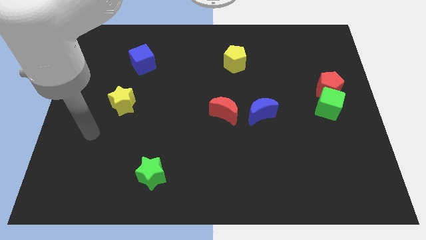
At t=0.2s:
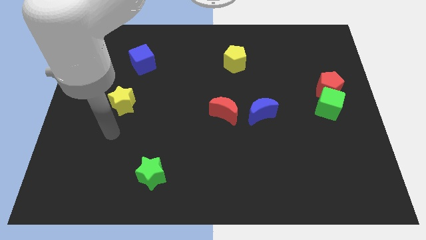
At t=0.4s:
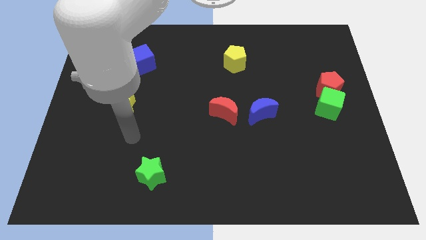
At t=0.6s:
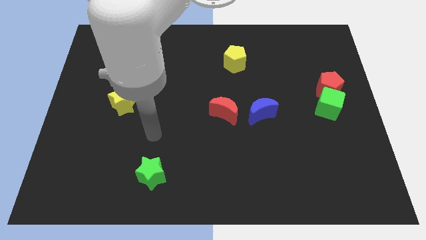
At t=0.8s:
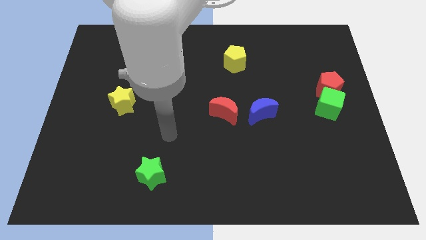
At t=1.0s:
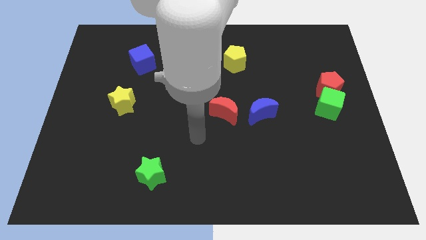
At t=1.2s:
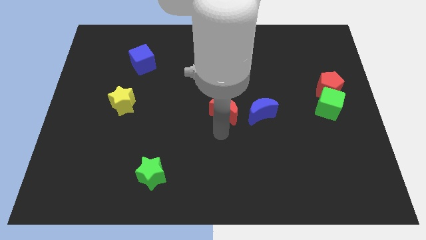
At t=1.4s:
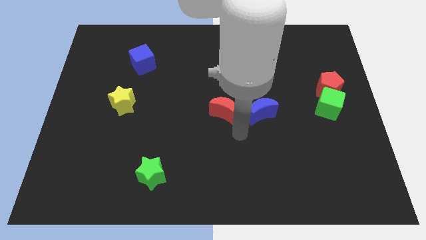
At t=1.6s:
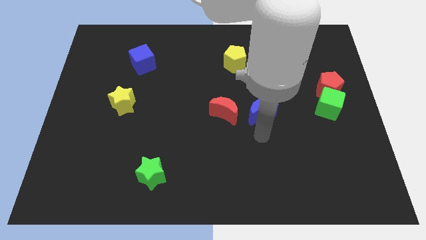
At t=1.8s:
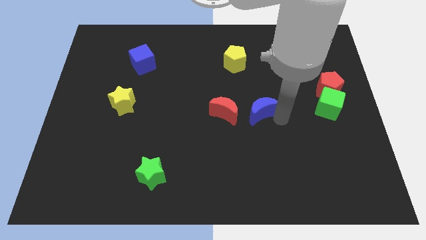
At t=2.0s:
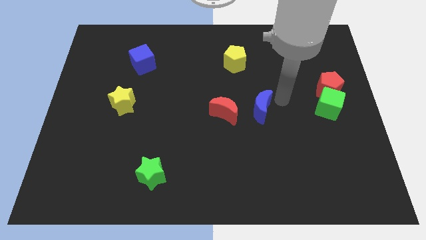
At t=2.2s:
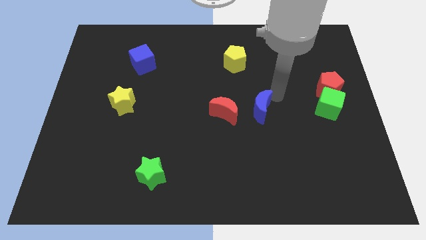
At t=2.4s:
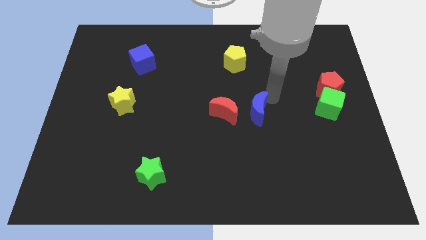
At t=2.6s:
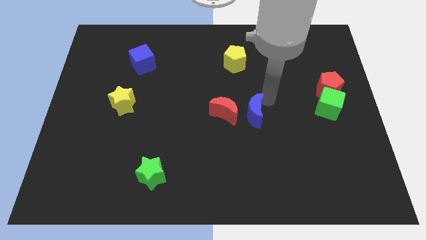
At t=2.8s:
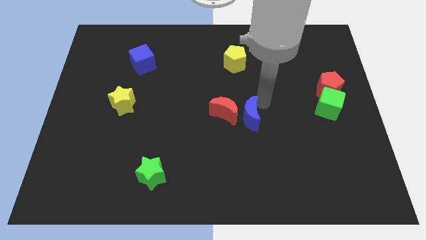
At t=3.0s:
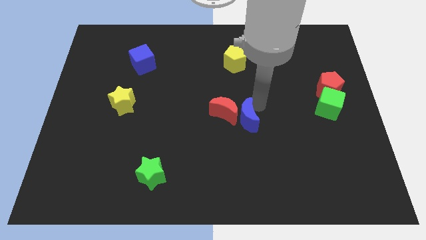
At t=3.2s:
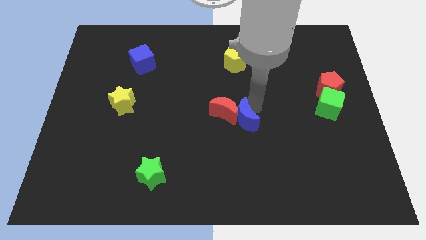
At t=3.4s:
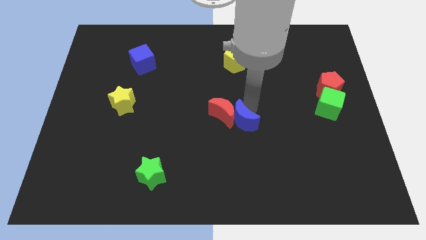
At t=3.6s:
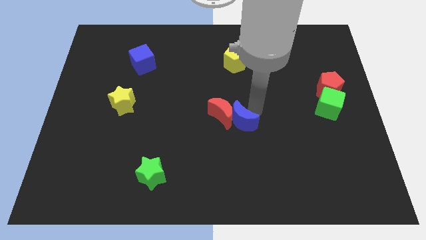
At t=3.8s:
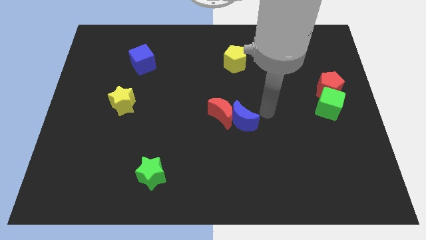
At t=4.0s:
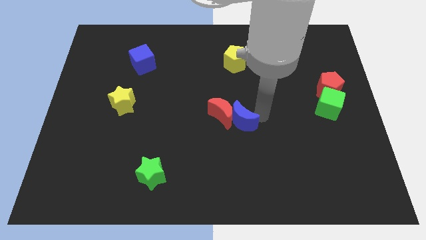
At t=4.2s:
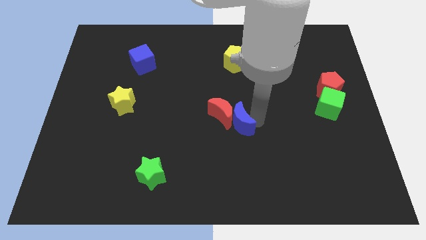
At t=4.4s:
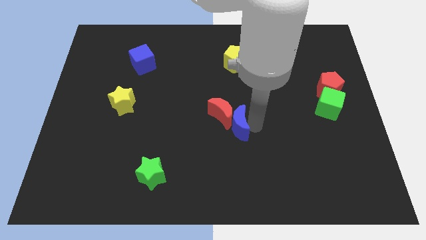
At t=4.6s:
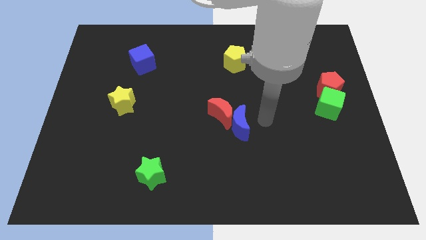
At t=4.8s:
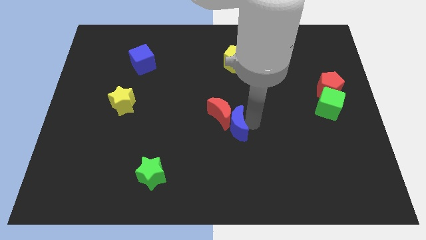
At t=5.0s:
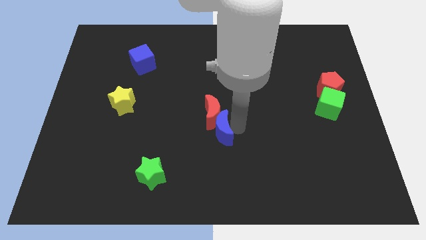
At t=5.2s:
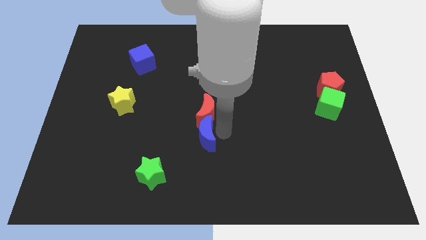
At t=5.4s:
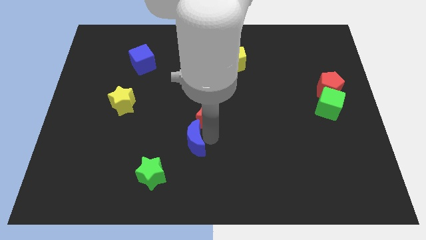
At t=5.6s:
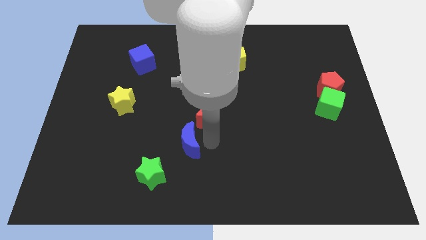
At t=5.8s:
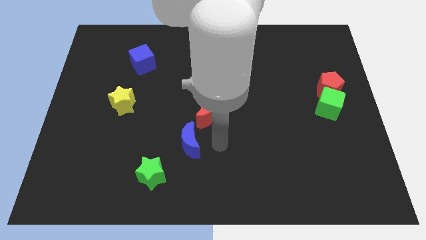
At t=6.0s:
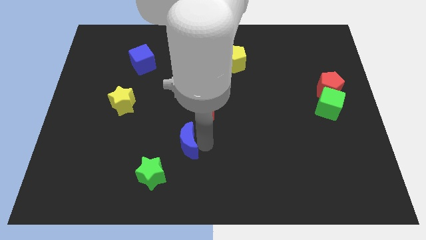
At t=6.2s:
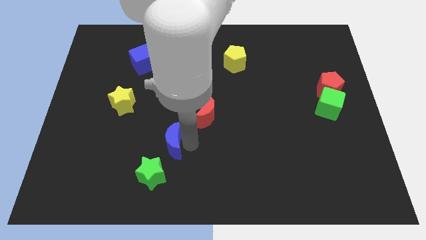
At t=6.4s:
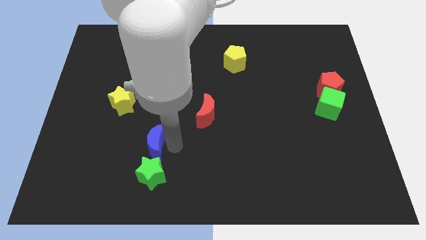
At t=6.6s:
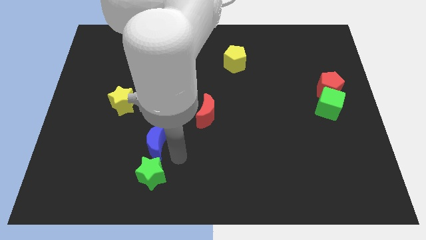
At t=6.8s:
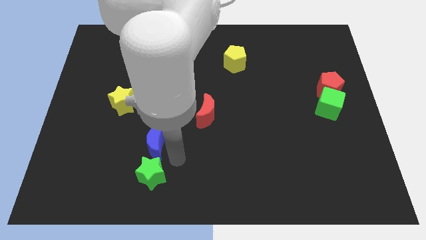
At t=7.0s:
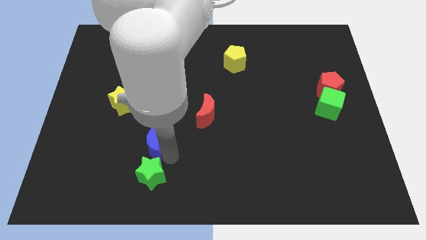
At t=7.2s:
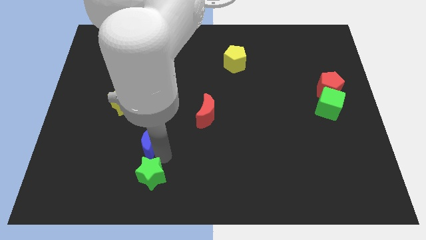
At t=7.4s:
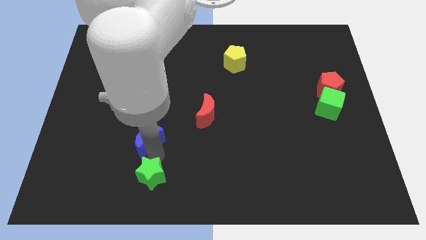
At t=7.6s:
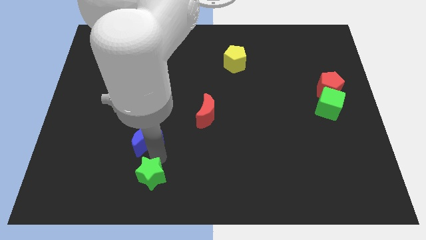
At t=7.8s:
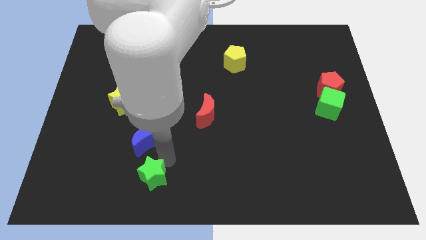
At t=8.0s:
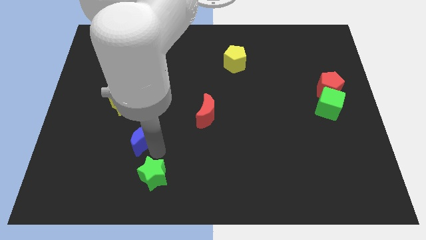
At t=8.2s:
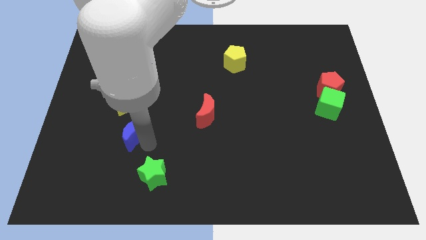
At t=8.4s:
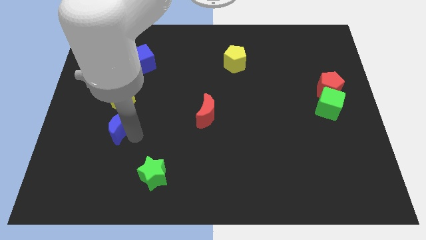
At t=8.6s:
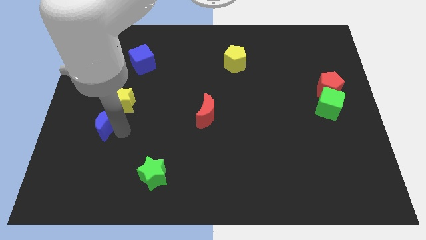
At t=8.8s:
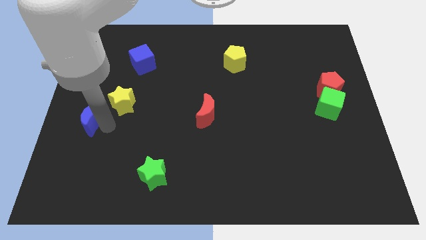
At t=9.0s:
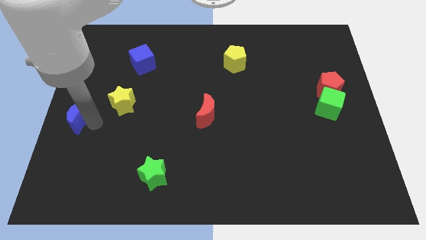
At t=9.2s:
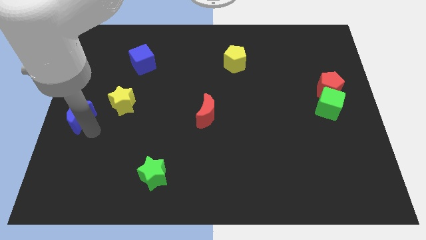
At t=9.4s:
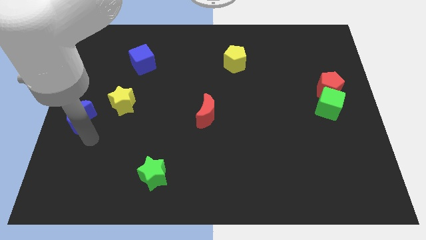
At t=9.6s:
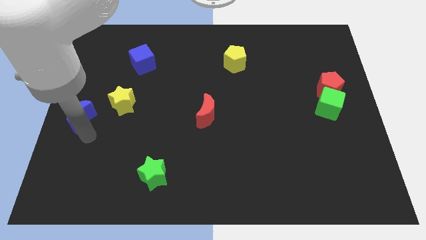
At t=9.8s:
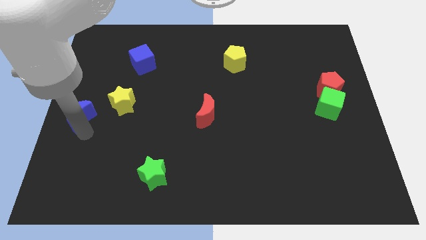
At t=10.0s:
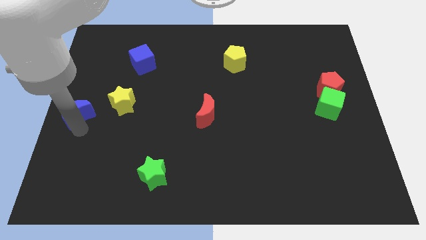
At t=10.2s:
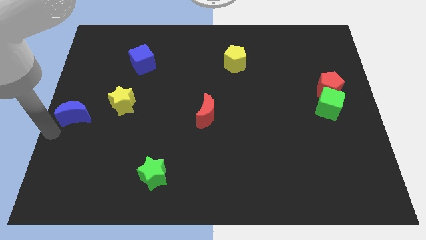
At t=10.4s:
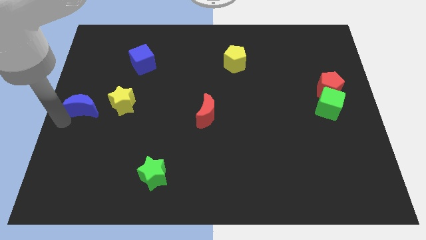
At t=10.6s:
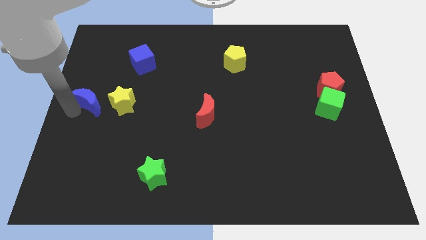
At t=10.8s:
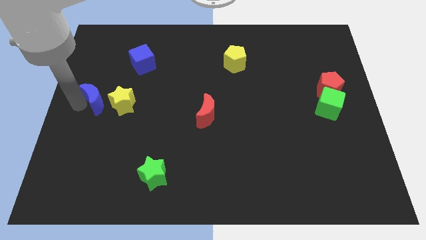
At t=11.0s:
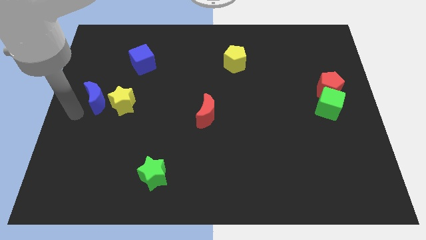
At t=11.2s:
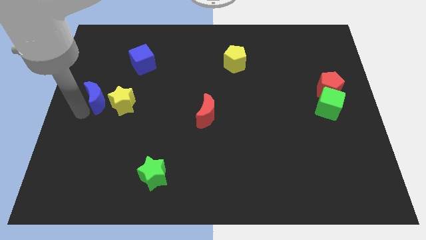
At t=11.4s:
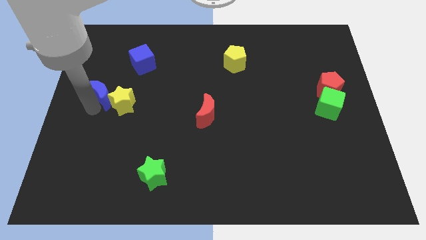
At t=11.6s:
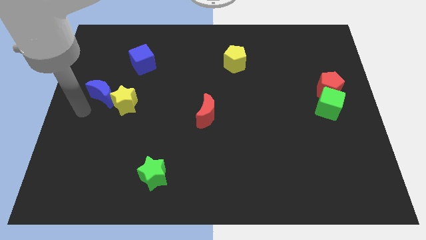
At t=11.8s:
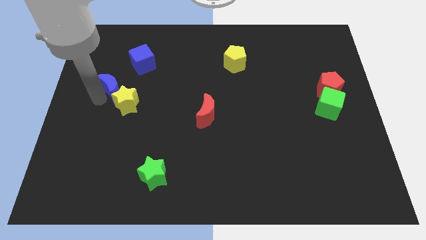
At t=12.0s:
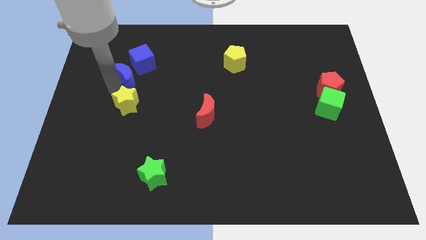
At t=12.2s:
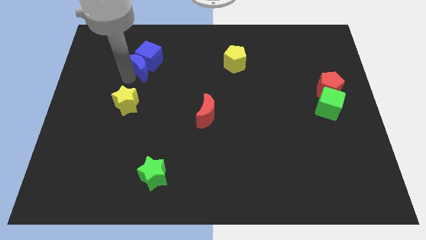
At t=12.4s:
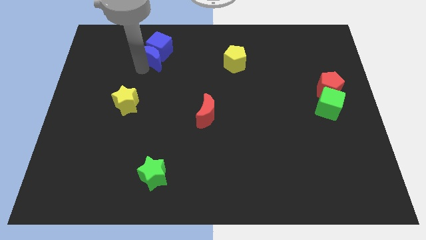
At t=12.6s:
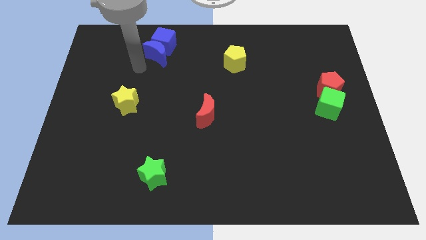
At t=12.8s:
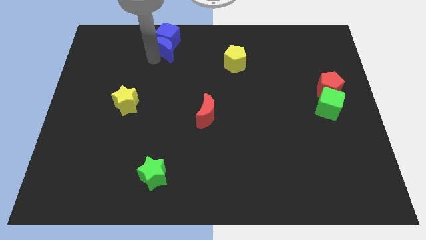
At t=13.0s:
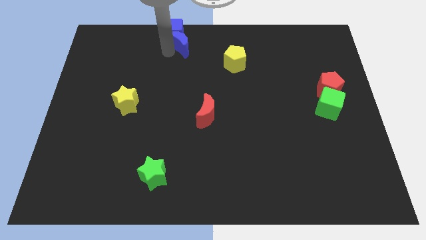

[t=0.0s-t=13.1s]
move the blue moon to the towards your base

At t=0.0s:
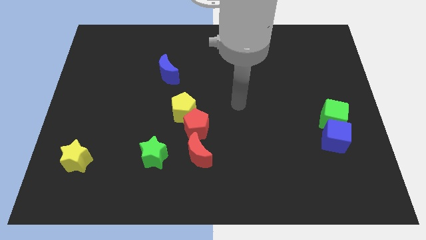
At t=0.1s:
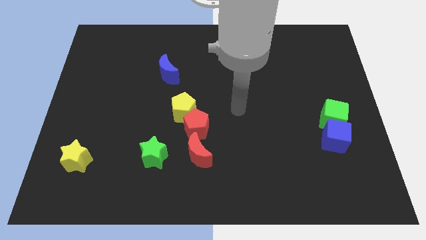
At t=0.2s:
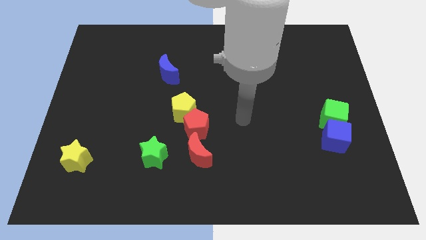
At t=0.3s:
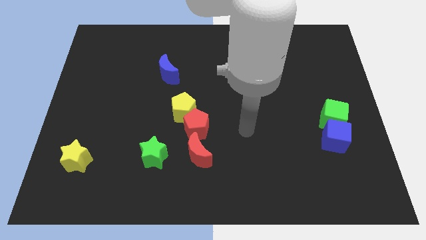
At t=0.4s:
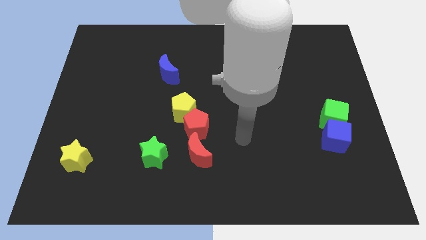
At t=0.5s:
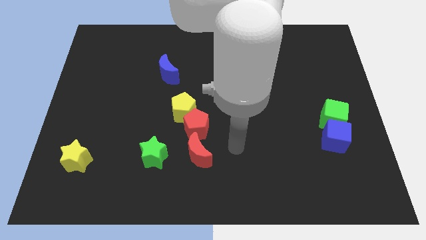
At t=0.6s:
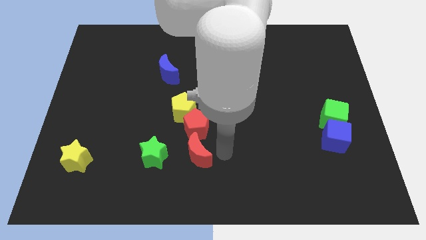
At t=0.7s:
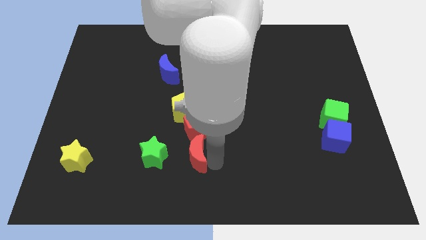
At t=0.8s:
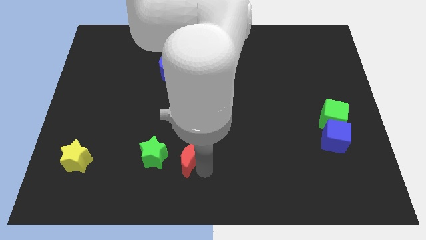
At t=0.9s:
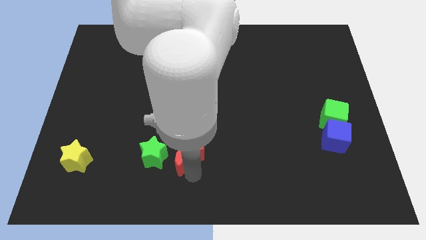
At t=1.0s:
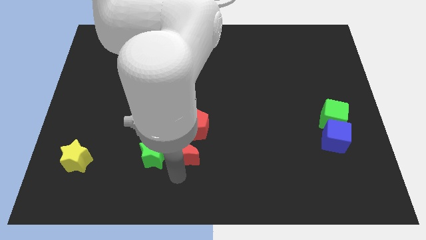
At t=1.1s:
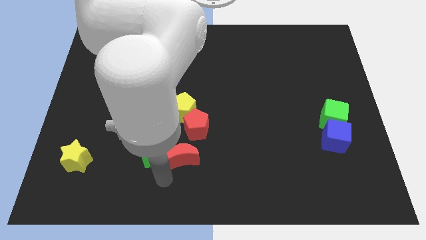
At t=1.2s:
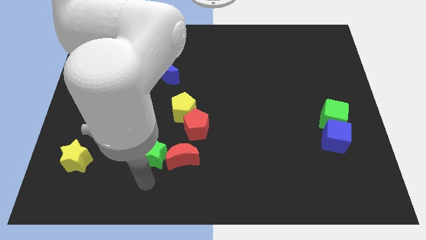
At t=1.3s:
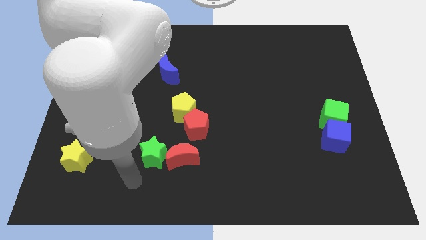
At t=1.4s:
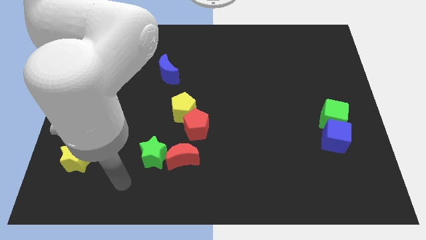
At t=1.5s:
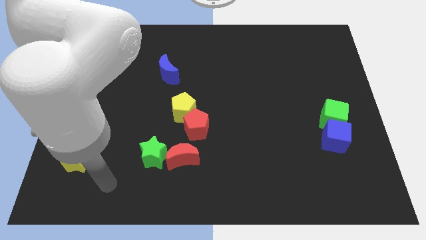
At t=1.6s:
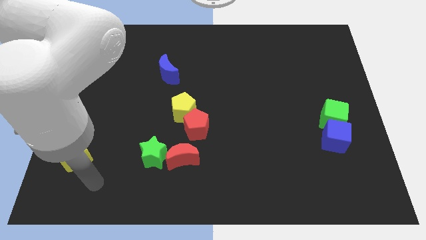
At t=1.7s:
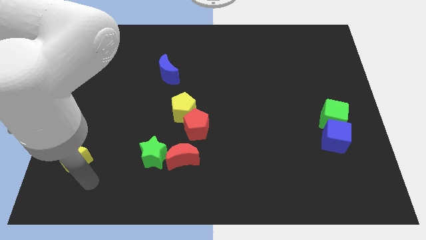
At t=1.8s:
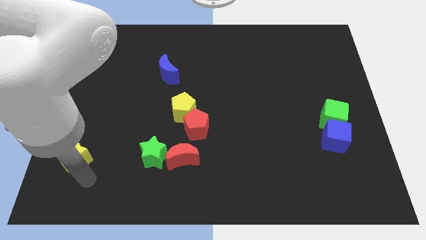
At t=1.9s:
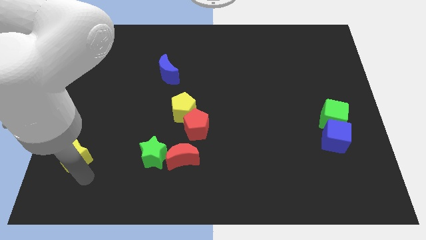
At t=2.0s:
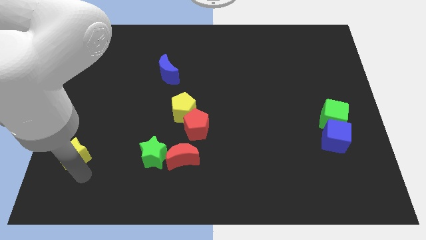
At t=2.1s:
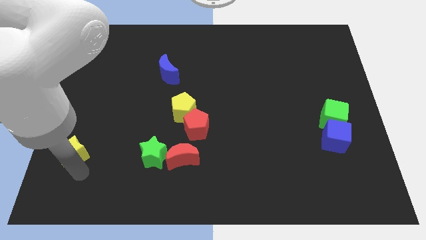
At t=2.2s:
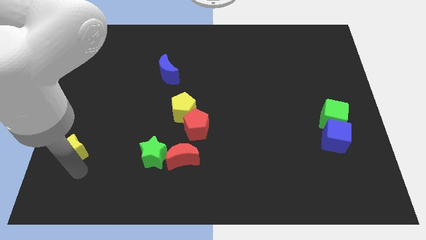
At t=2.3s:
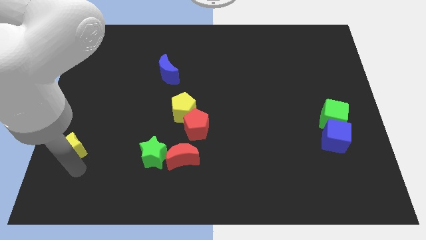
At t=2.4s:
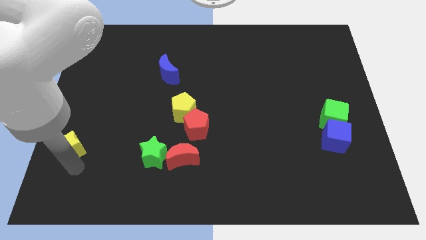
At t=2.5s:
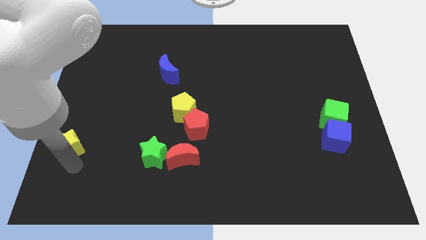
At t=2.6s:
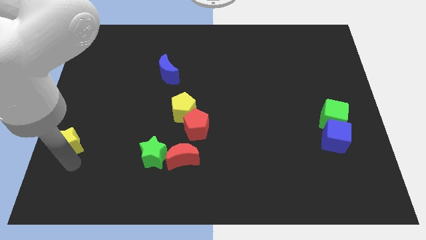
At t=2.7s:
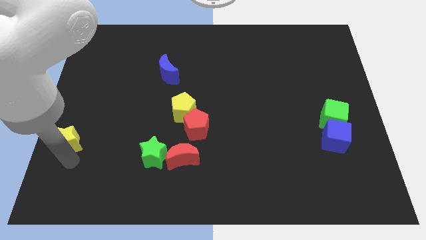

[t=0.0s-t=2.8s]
push the yellow star to the left side of the board
